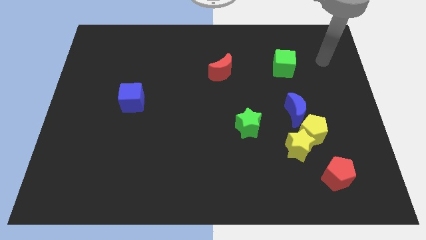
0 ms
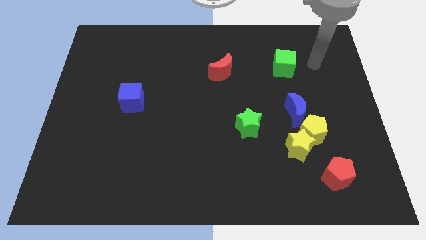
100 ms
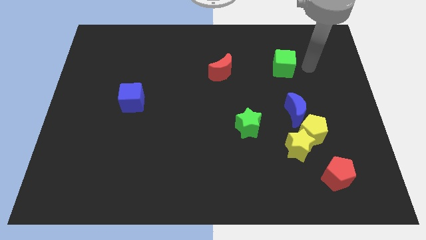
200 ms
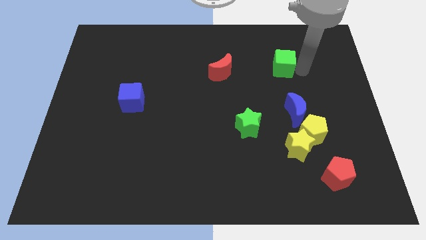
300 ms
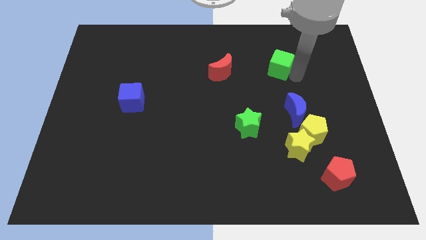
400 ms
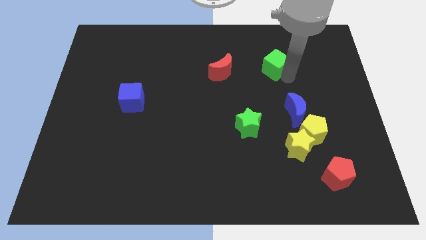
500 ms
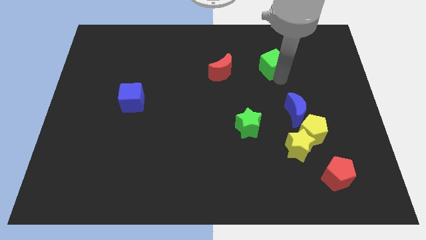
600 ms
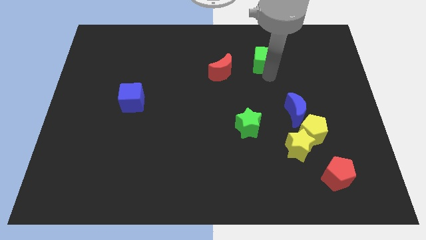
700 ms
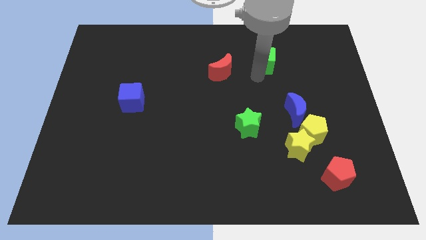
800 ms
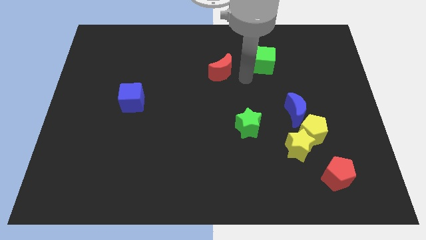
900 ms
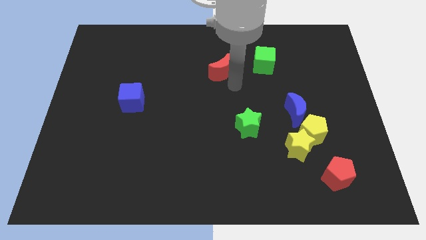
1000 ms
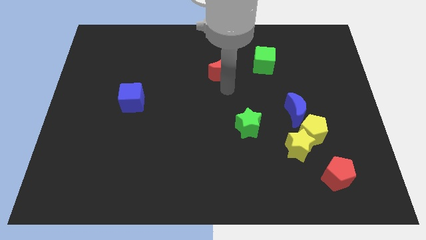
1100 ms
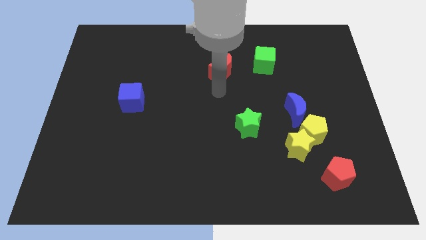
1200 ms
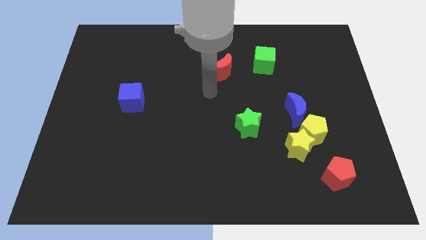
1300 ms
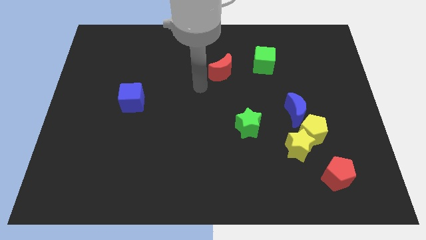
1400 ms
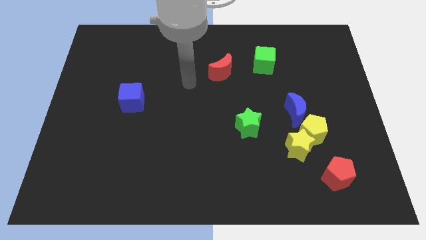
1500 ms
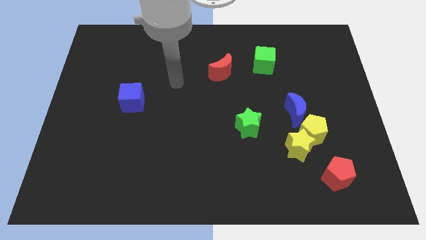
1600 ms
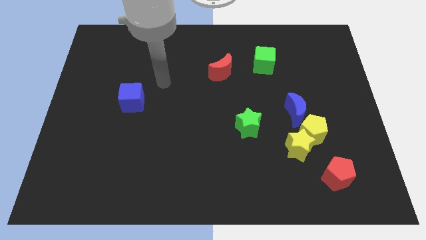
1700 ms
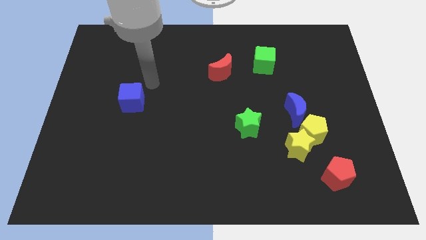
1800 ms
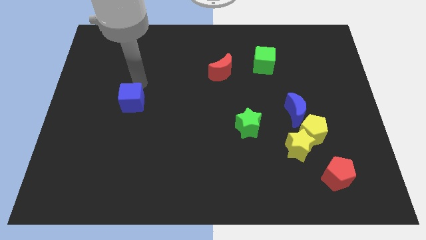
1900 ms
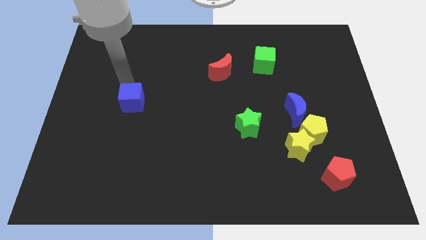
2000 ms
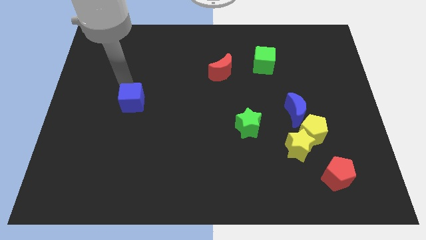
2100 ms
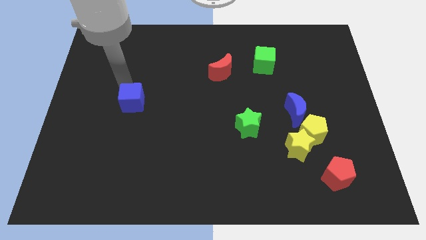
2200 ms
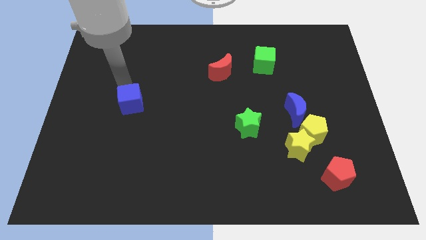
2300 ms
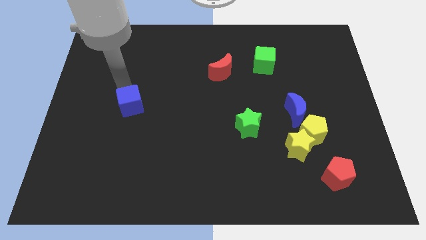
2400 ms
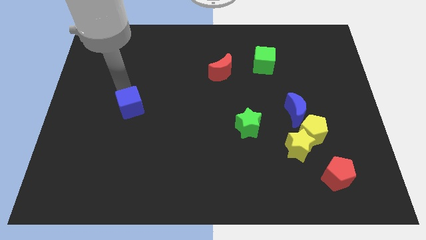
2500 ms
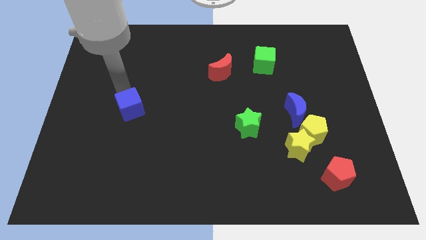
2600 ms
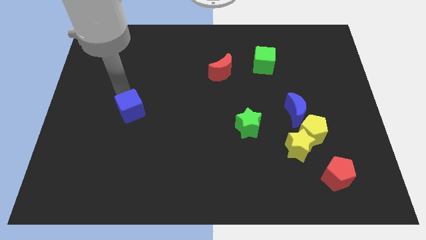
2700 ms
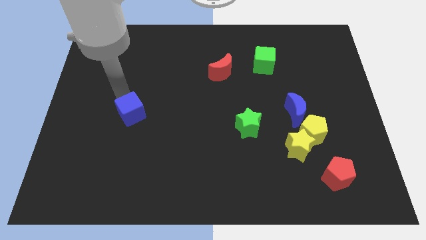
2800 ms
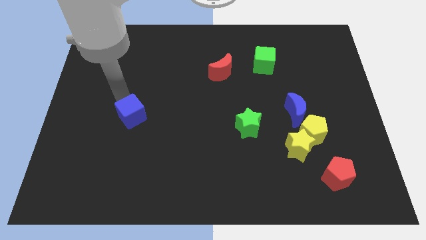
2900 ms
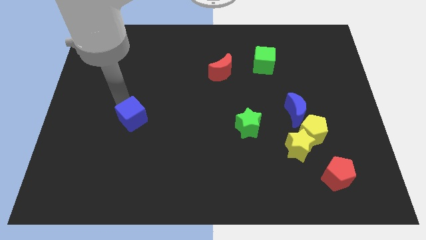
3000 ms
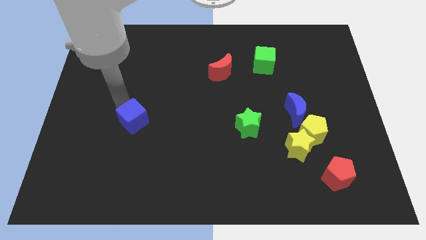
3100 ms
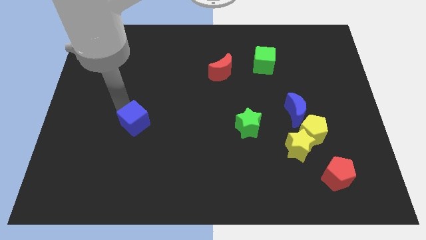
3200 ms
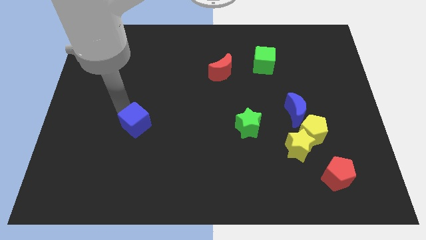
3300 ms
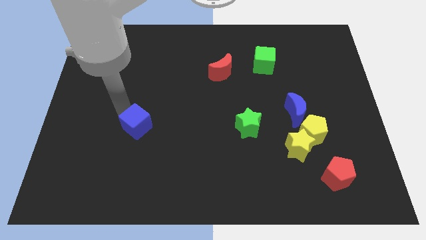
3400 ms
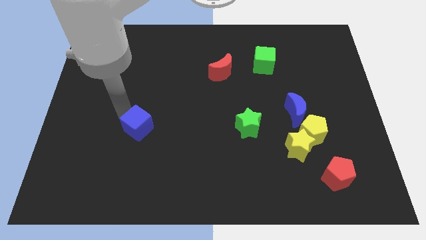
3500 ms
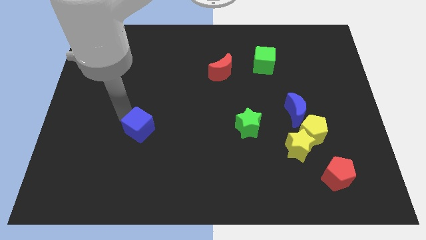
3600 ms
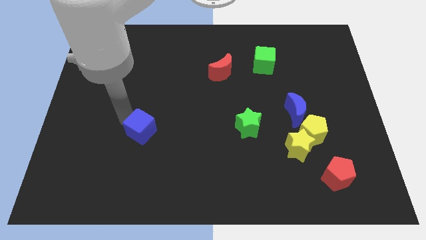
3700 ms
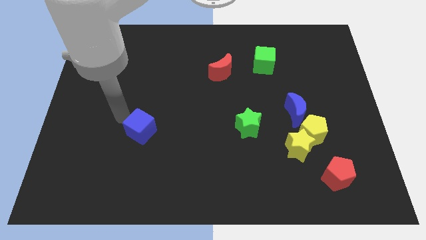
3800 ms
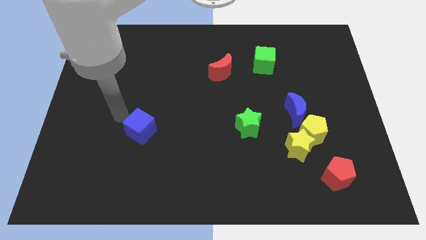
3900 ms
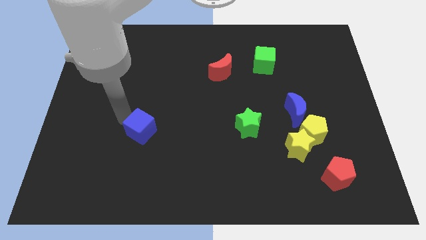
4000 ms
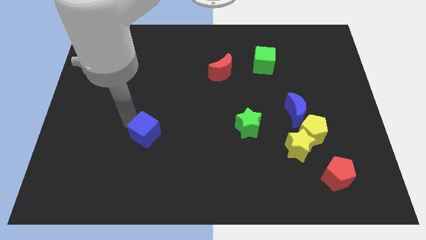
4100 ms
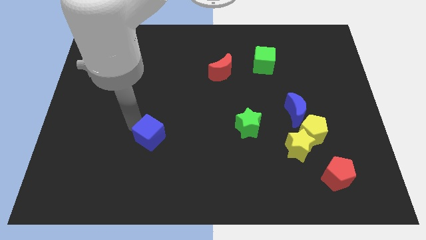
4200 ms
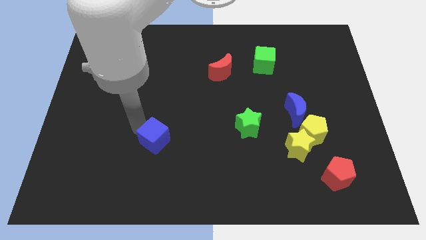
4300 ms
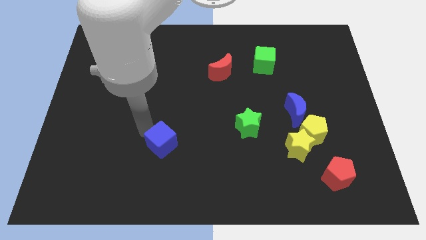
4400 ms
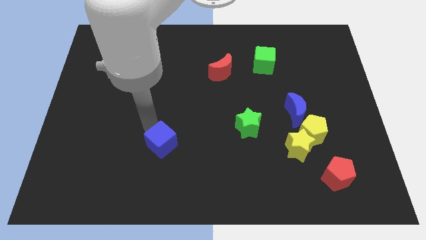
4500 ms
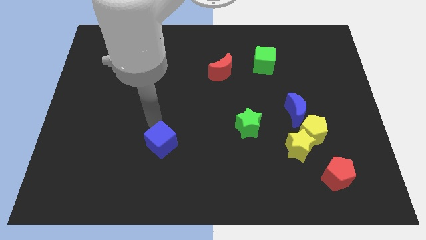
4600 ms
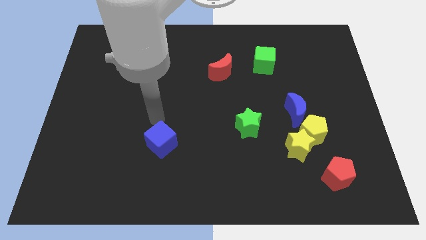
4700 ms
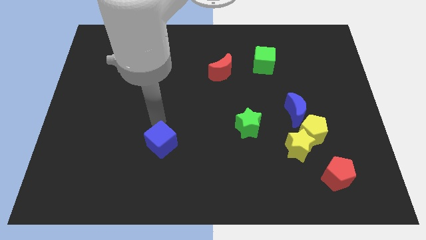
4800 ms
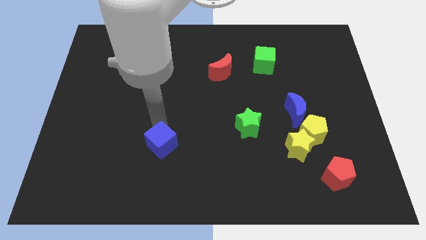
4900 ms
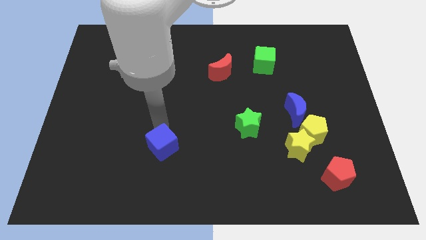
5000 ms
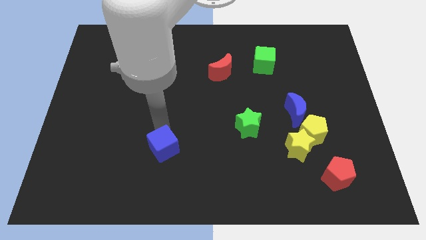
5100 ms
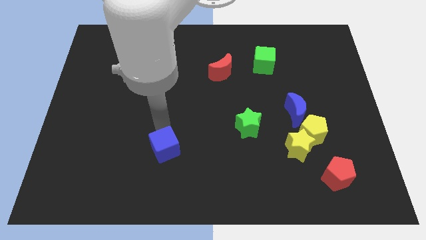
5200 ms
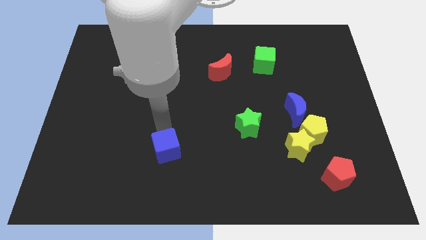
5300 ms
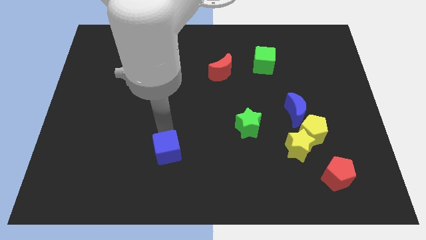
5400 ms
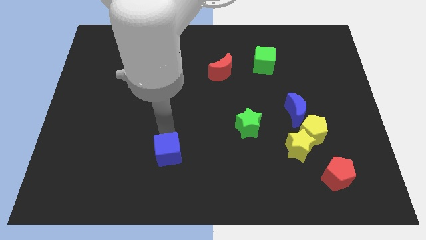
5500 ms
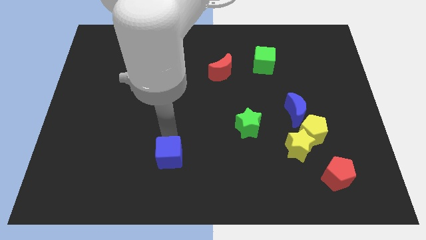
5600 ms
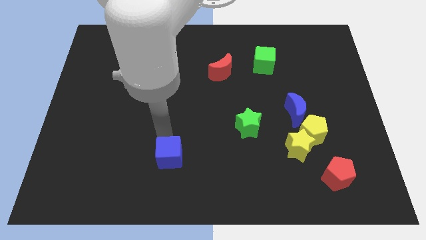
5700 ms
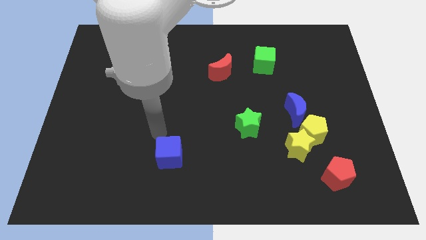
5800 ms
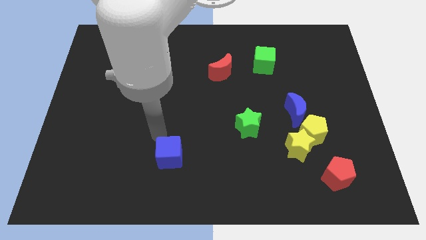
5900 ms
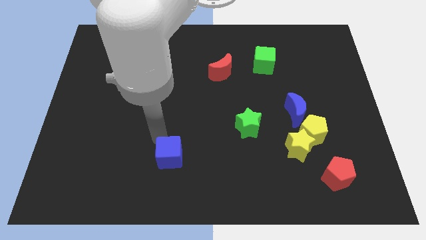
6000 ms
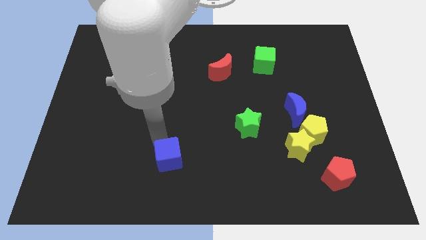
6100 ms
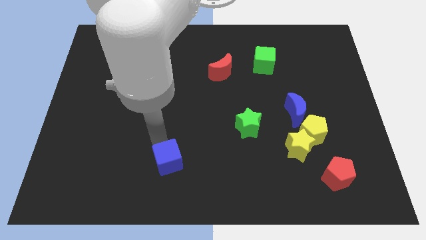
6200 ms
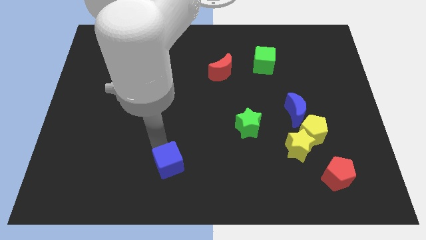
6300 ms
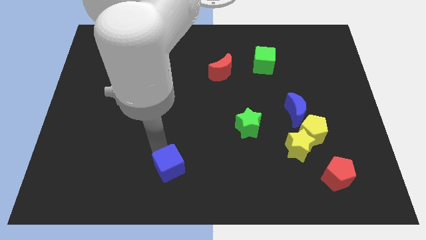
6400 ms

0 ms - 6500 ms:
move the blue cube to the bottom

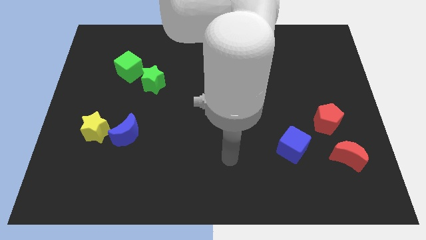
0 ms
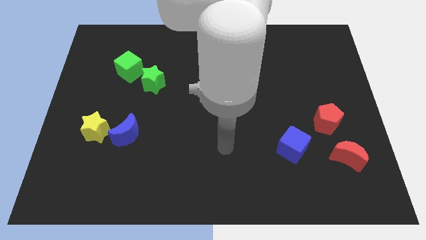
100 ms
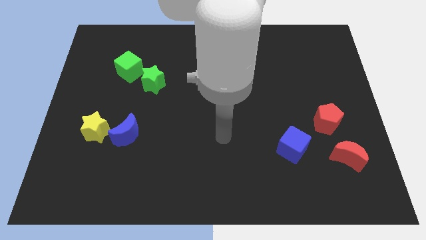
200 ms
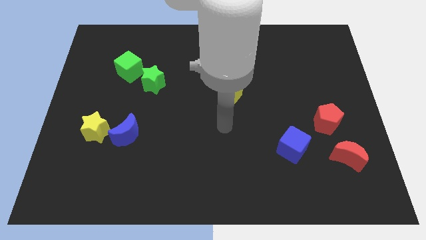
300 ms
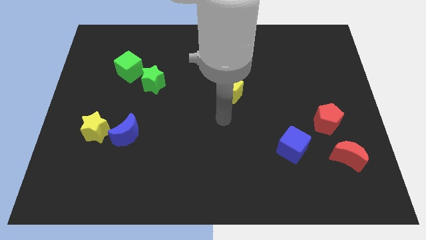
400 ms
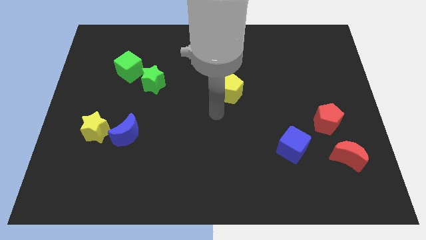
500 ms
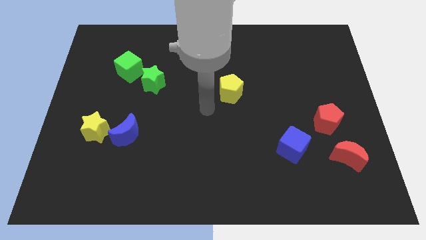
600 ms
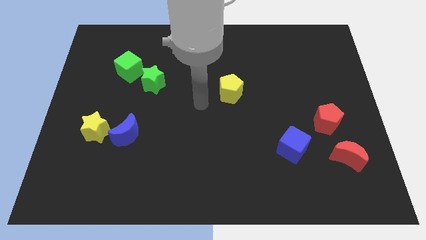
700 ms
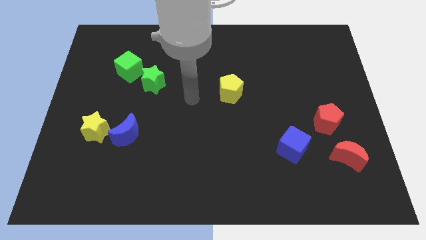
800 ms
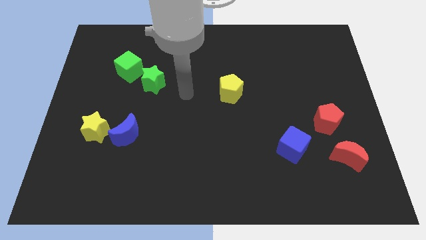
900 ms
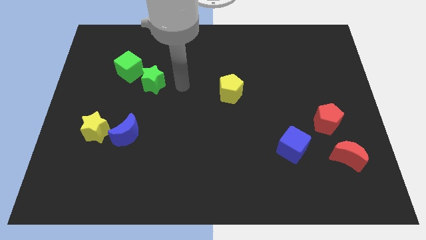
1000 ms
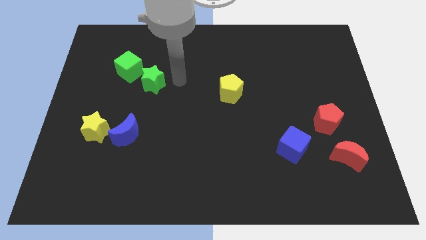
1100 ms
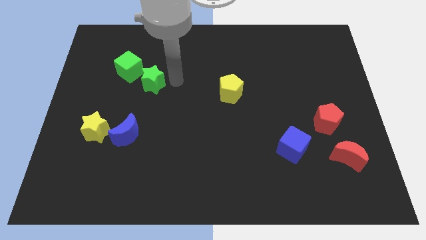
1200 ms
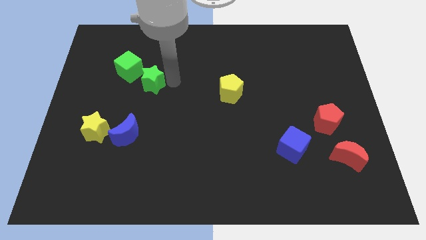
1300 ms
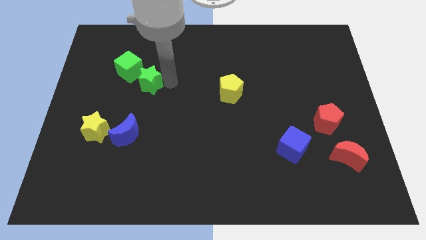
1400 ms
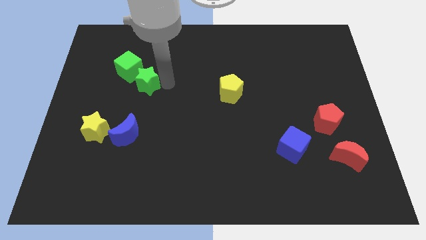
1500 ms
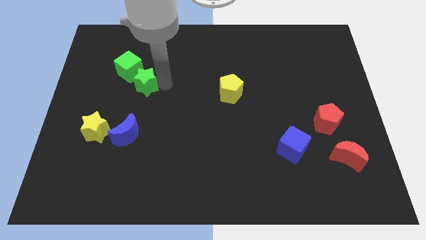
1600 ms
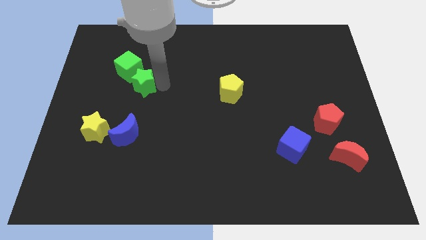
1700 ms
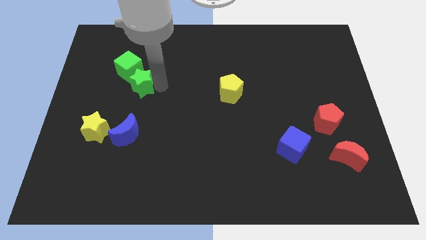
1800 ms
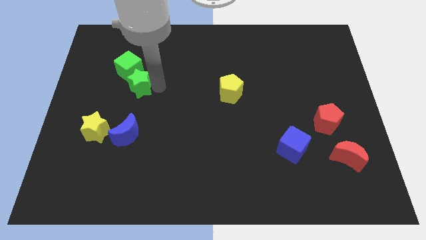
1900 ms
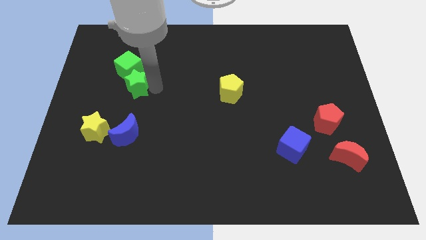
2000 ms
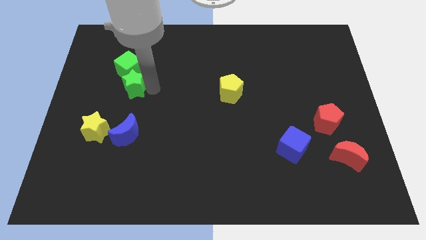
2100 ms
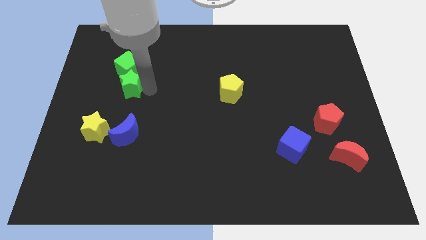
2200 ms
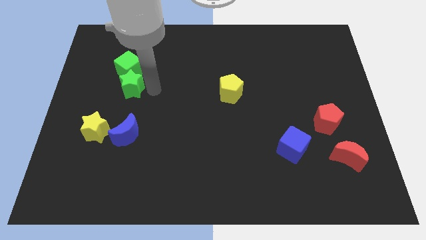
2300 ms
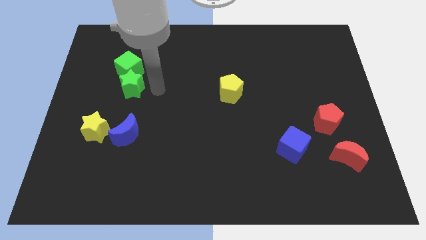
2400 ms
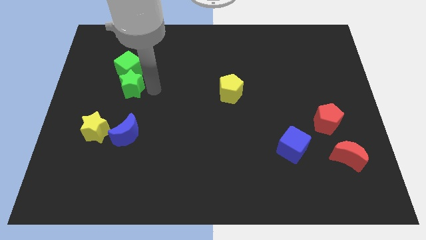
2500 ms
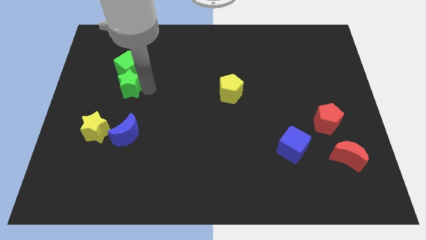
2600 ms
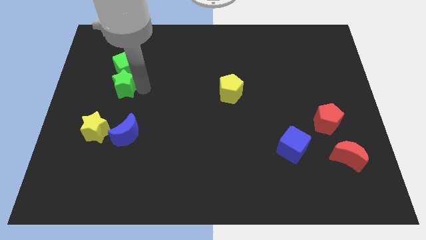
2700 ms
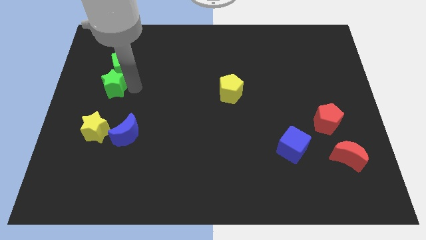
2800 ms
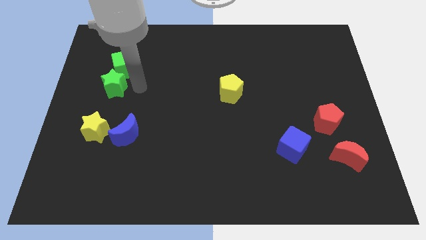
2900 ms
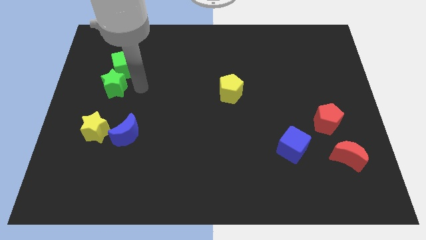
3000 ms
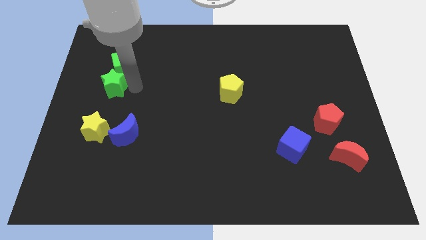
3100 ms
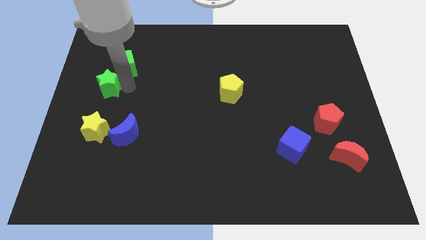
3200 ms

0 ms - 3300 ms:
push the green star to the center left
